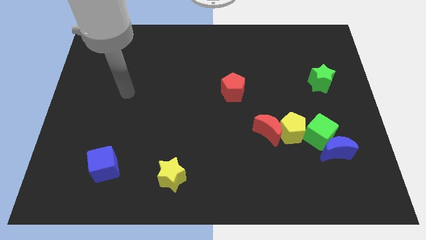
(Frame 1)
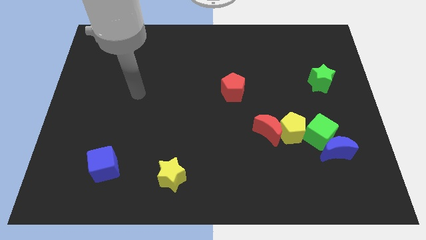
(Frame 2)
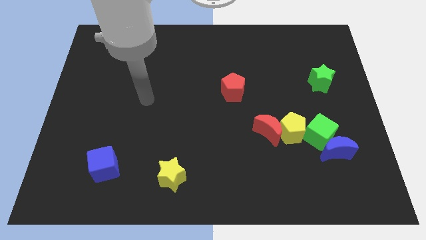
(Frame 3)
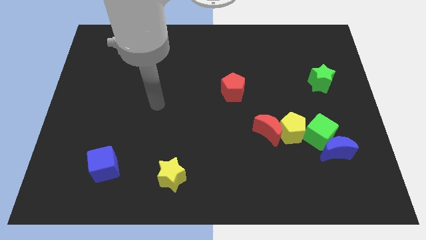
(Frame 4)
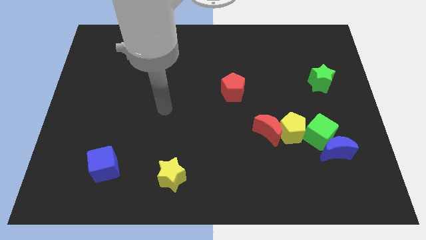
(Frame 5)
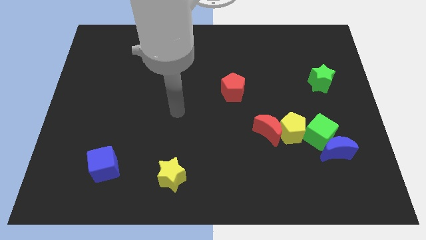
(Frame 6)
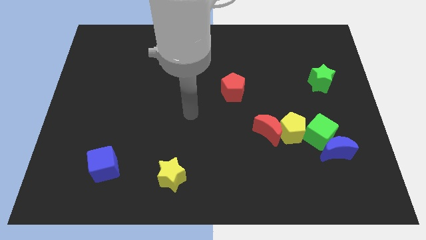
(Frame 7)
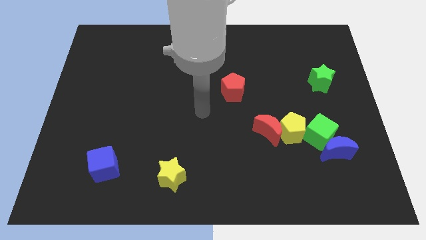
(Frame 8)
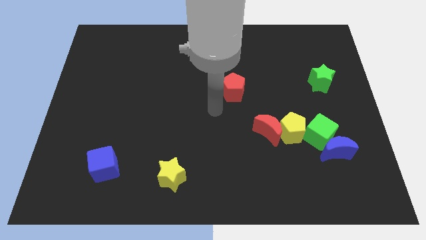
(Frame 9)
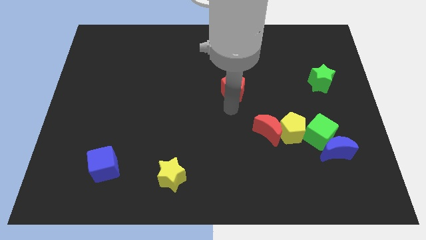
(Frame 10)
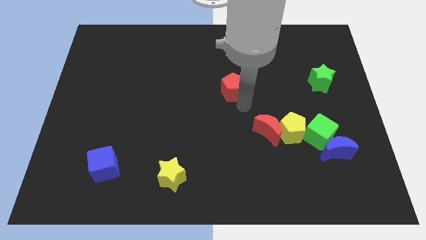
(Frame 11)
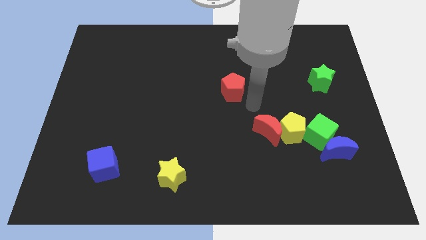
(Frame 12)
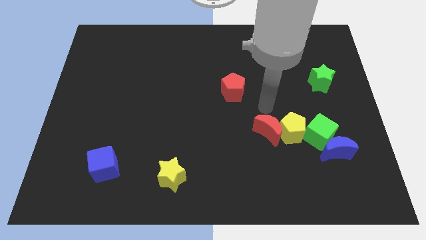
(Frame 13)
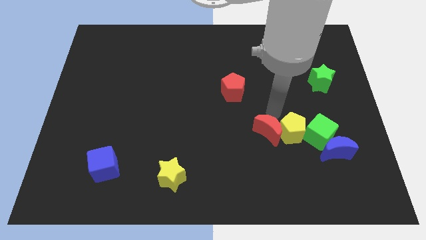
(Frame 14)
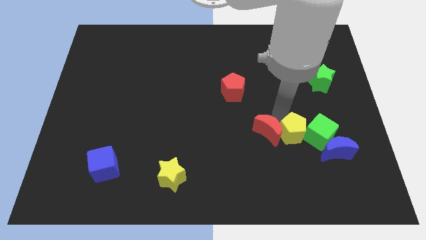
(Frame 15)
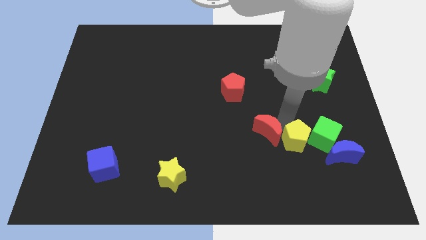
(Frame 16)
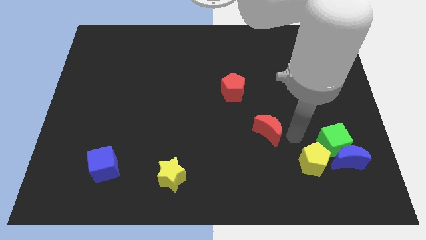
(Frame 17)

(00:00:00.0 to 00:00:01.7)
move the red moon away from the yellow pentagon

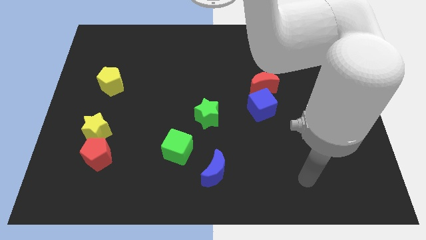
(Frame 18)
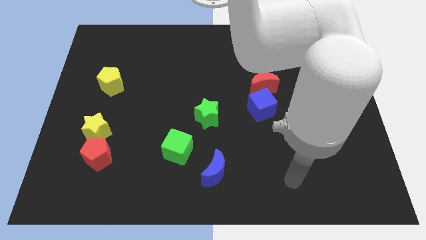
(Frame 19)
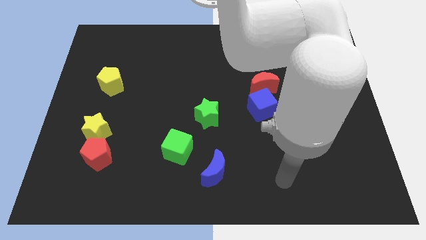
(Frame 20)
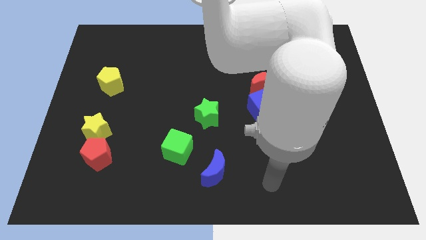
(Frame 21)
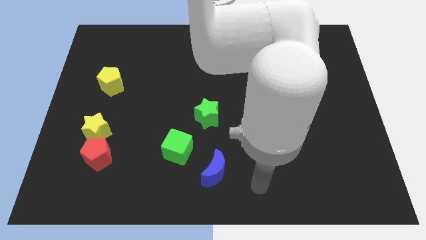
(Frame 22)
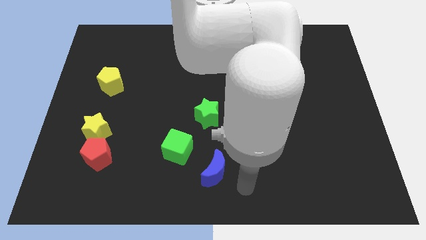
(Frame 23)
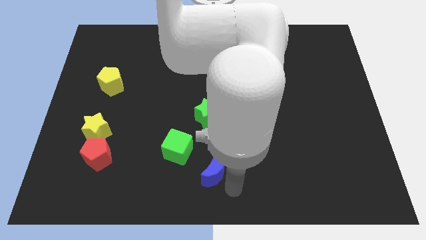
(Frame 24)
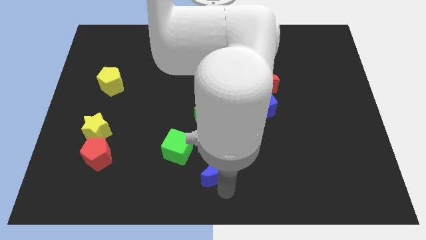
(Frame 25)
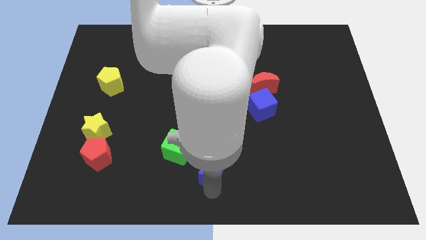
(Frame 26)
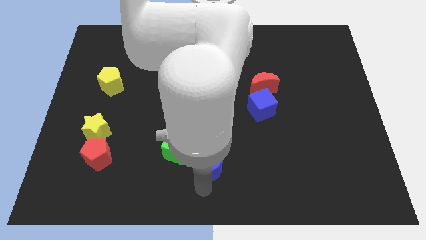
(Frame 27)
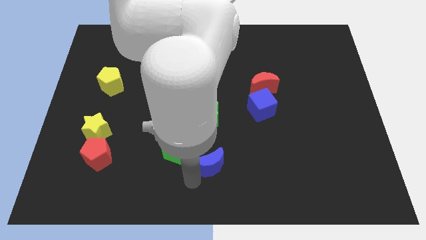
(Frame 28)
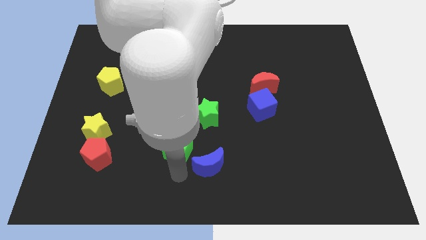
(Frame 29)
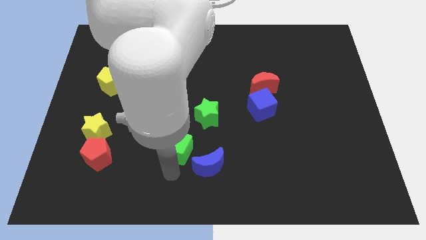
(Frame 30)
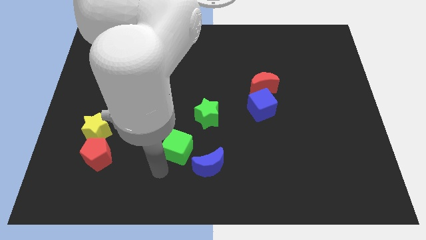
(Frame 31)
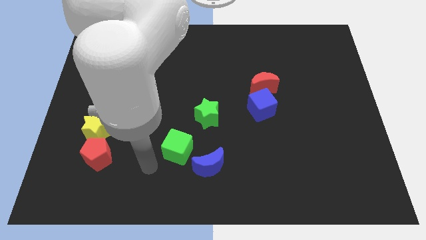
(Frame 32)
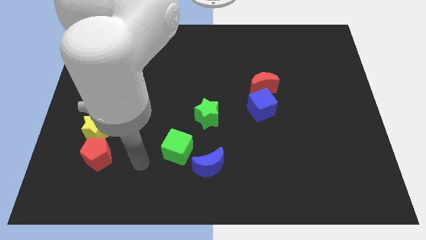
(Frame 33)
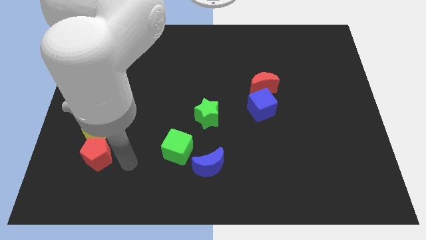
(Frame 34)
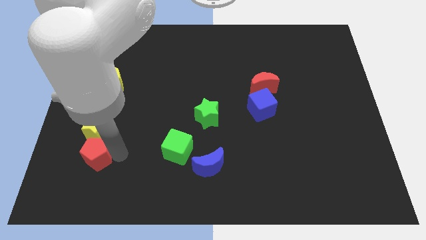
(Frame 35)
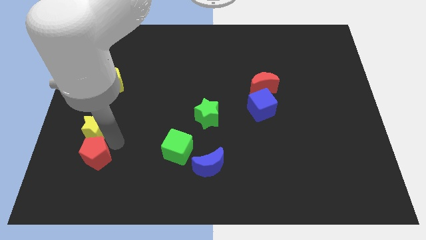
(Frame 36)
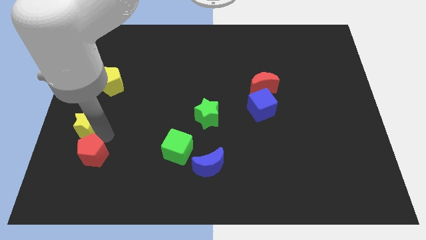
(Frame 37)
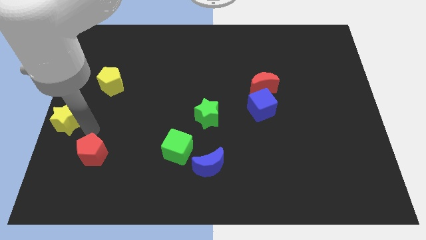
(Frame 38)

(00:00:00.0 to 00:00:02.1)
pull the red pentagon apart from the yellow star

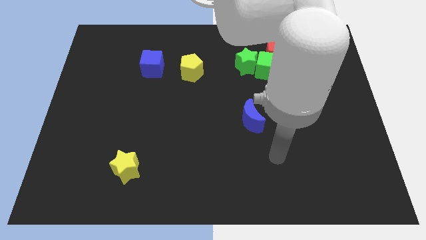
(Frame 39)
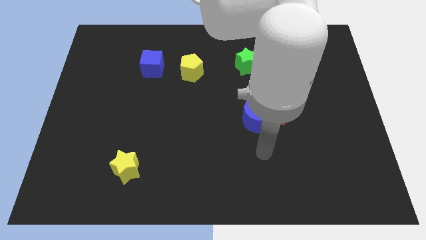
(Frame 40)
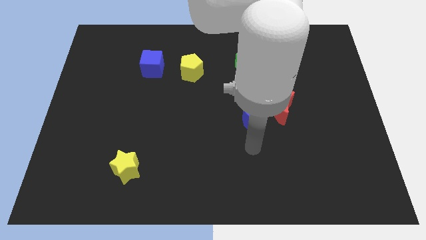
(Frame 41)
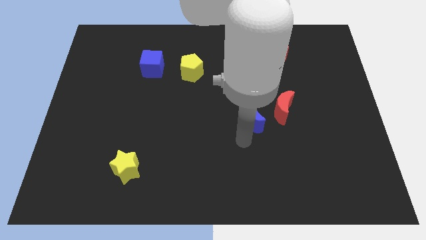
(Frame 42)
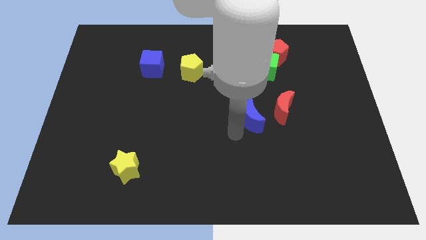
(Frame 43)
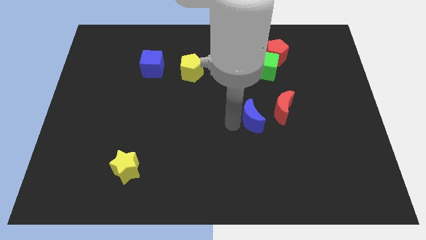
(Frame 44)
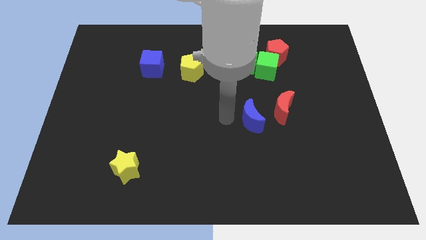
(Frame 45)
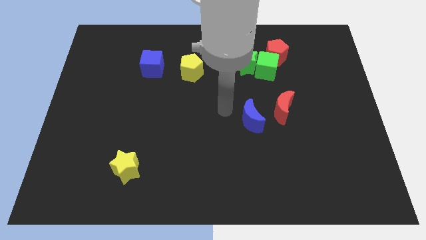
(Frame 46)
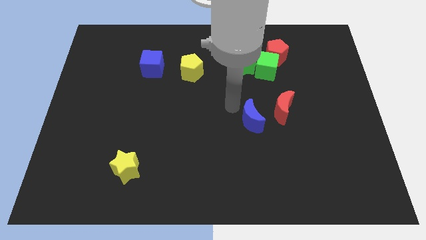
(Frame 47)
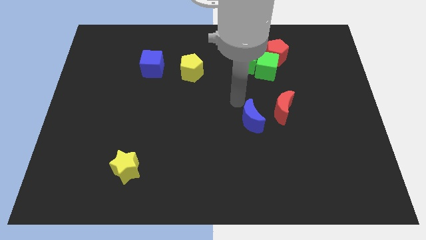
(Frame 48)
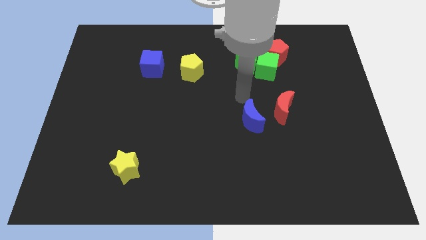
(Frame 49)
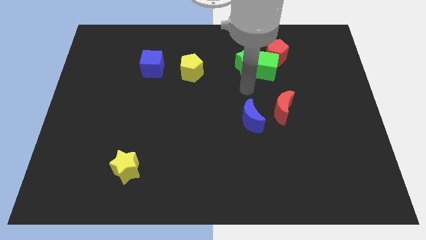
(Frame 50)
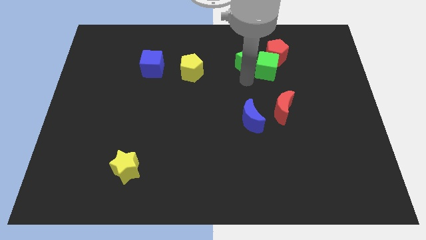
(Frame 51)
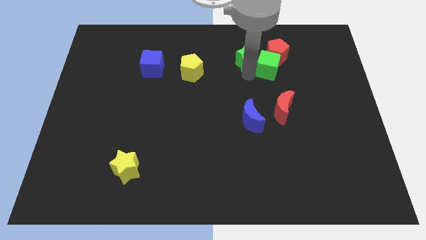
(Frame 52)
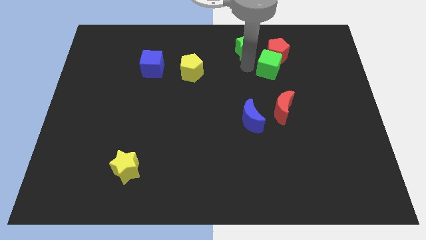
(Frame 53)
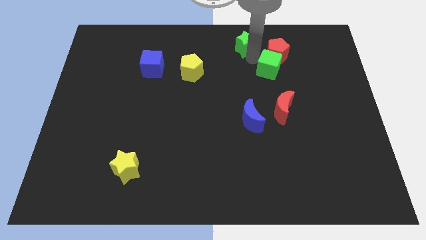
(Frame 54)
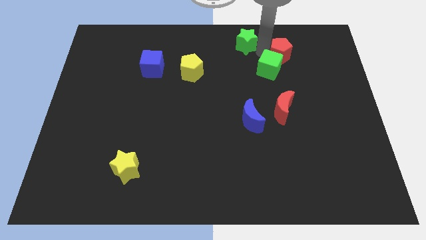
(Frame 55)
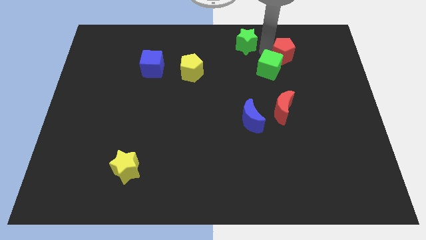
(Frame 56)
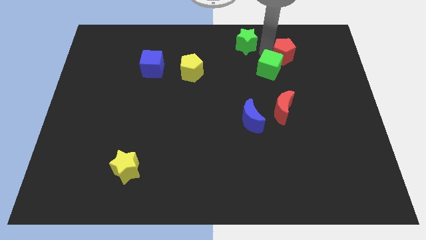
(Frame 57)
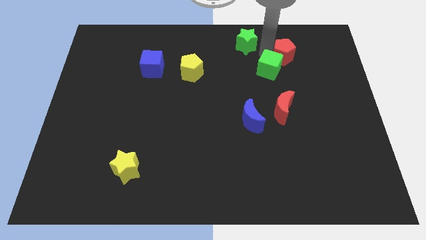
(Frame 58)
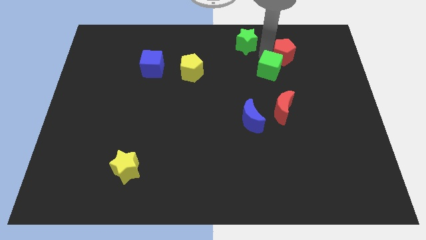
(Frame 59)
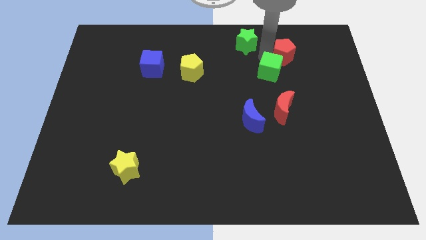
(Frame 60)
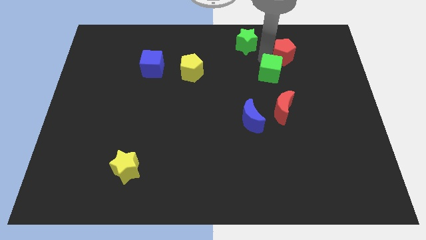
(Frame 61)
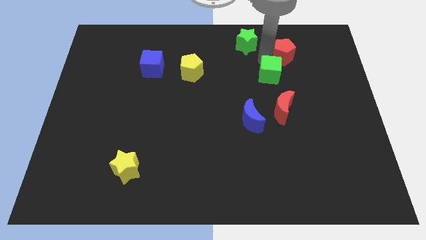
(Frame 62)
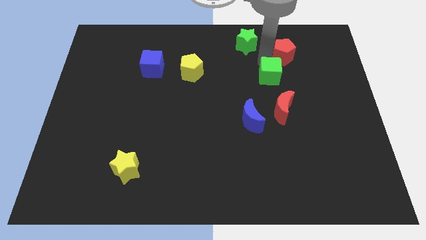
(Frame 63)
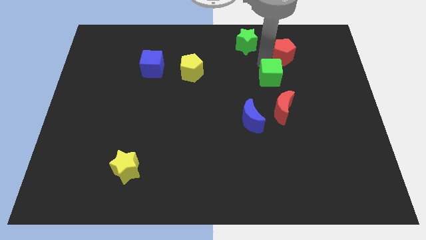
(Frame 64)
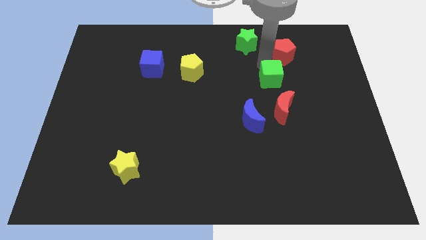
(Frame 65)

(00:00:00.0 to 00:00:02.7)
move the green cube away from the green star and red pentagon

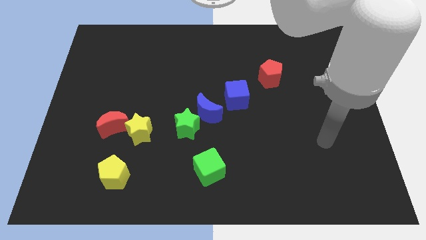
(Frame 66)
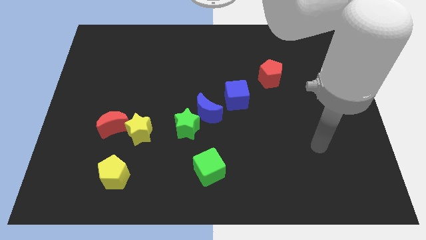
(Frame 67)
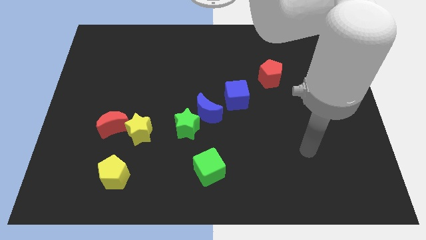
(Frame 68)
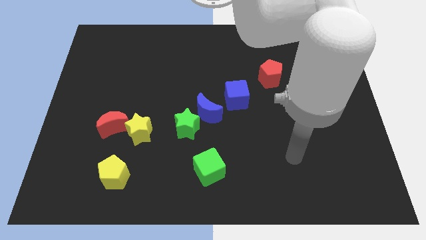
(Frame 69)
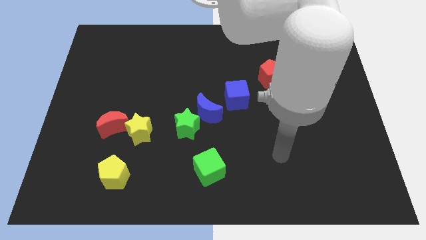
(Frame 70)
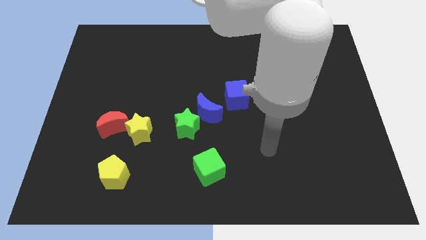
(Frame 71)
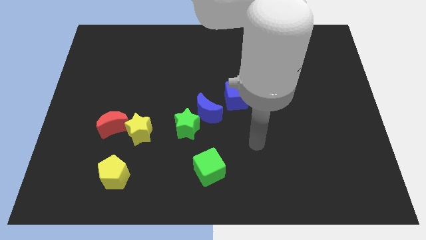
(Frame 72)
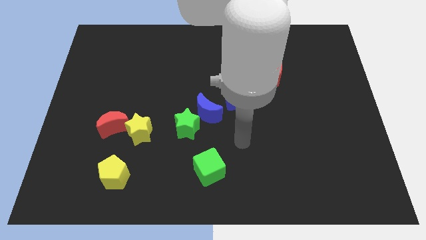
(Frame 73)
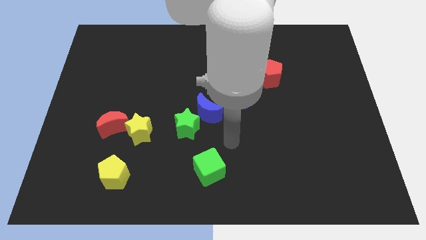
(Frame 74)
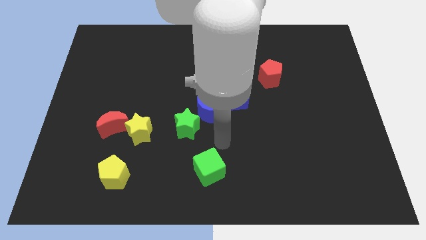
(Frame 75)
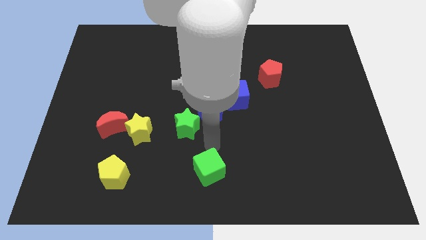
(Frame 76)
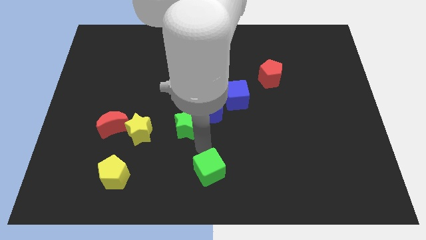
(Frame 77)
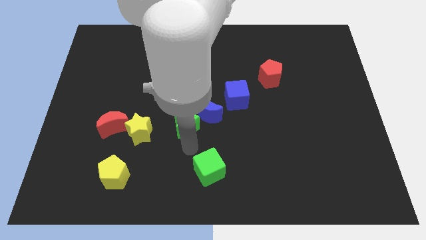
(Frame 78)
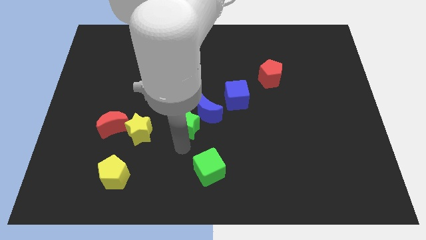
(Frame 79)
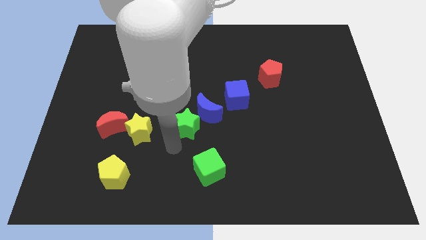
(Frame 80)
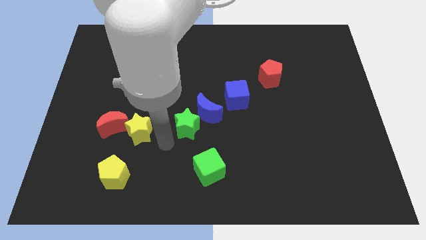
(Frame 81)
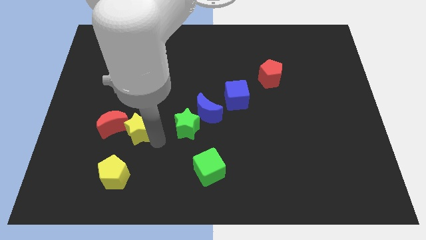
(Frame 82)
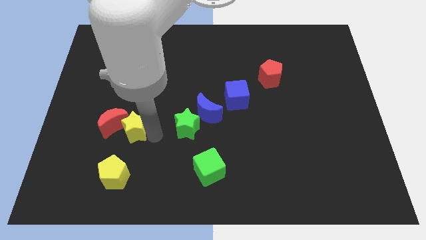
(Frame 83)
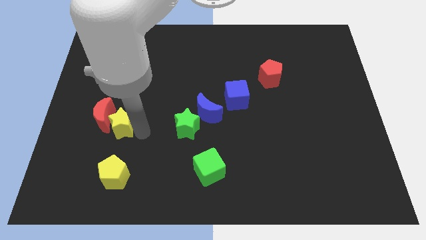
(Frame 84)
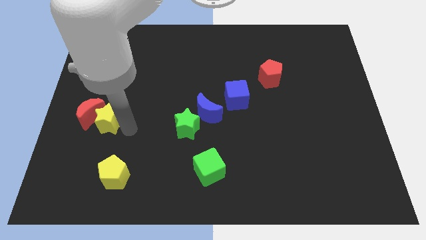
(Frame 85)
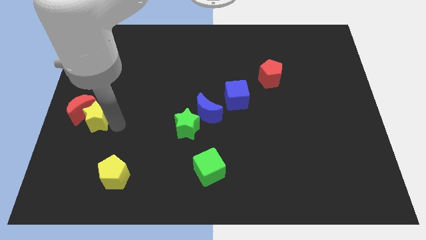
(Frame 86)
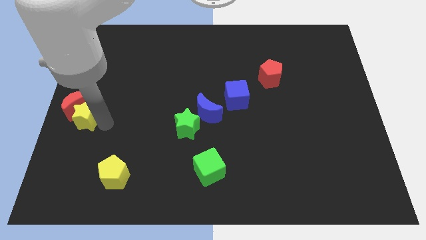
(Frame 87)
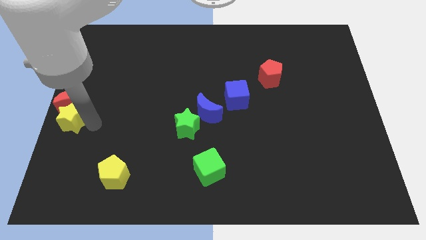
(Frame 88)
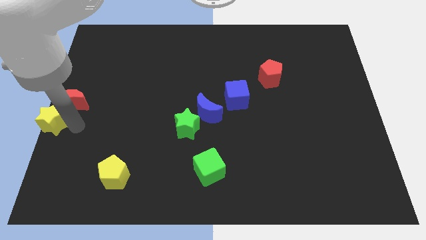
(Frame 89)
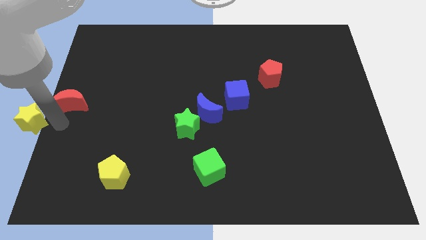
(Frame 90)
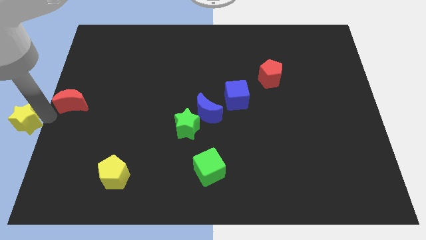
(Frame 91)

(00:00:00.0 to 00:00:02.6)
pull the red moon apart from the yellow star

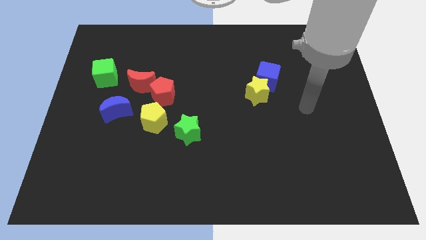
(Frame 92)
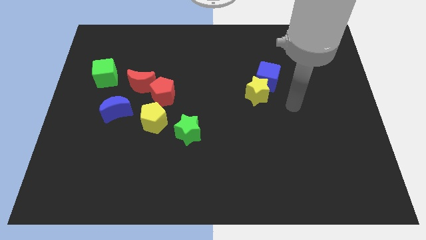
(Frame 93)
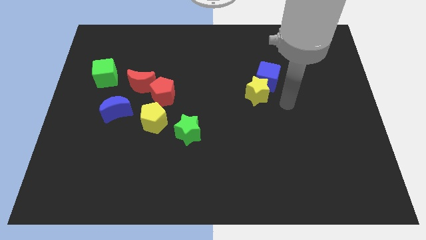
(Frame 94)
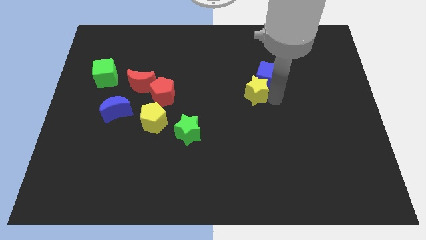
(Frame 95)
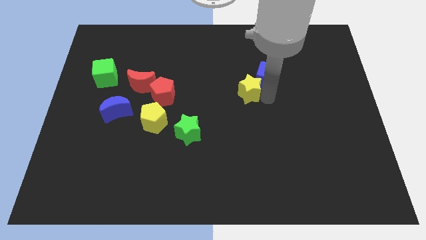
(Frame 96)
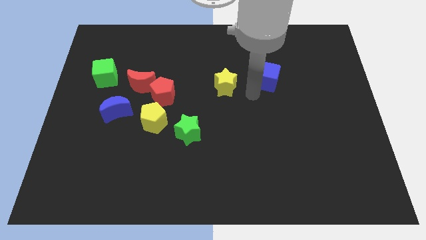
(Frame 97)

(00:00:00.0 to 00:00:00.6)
pull the blue cube apart from the yellow star
